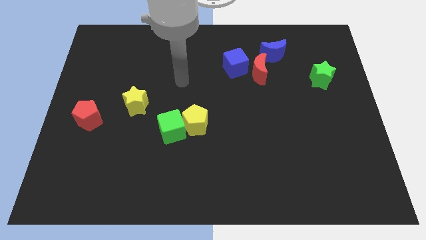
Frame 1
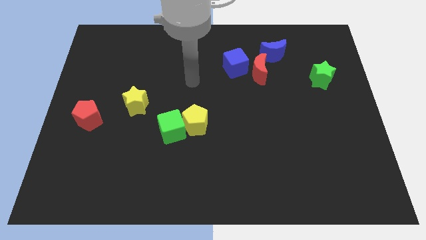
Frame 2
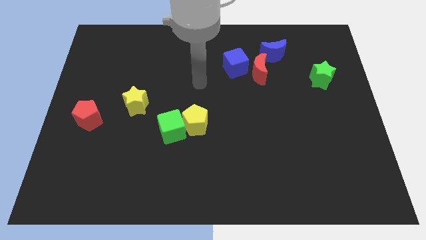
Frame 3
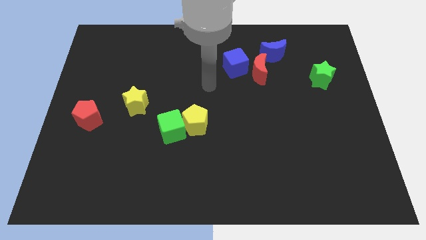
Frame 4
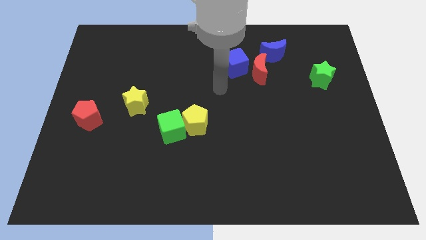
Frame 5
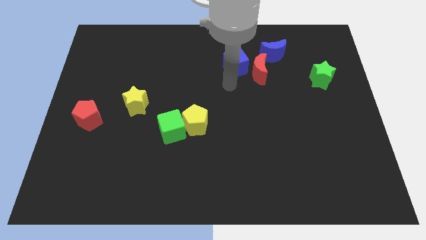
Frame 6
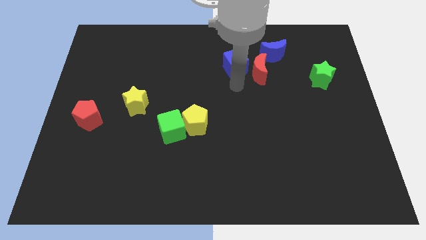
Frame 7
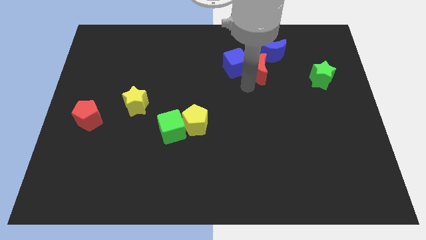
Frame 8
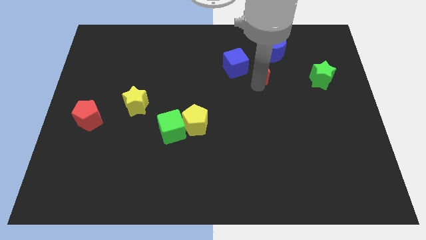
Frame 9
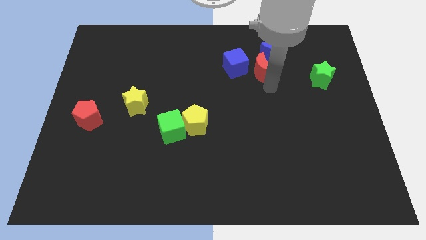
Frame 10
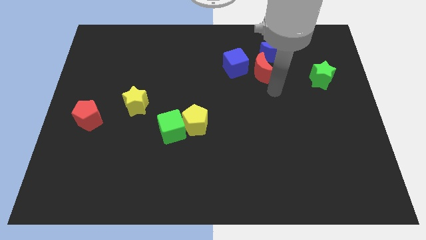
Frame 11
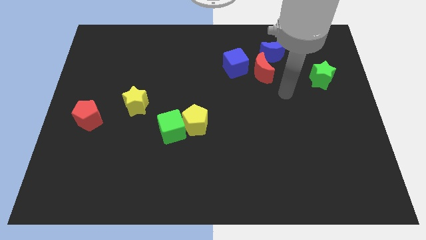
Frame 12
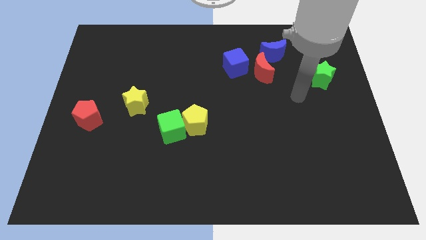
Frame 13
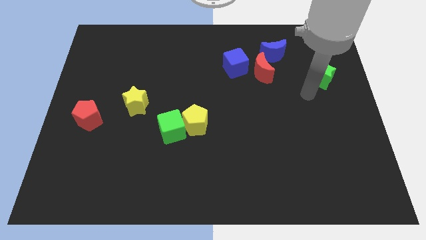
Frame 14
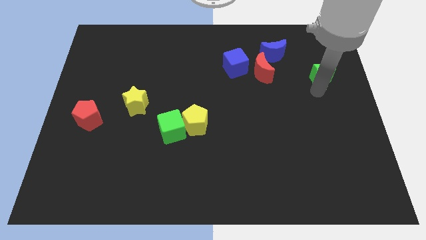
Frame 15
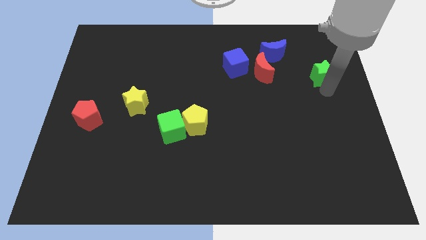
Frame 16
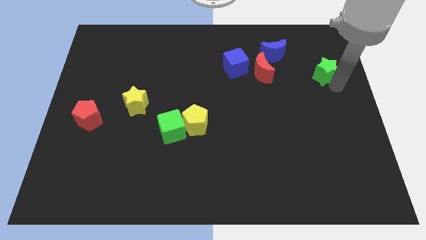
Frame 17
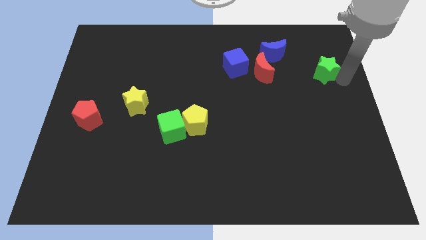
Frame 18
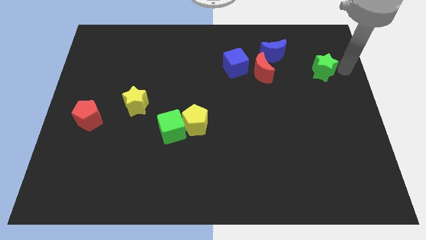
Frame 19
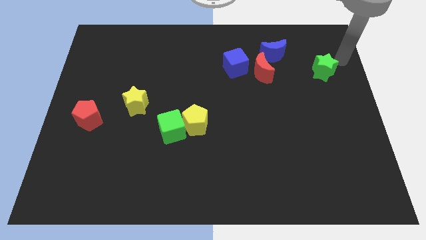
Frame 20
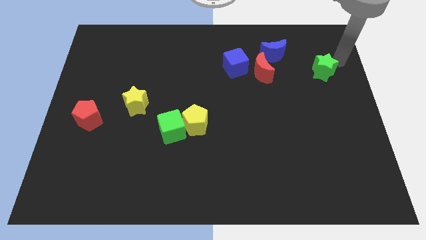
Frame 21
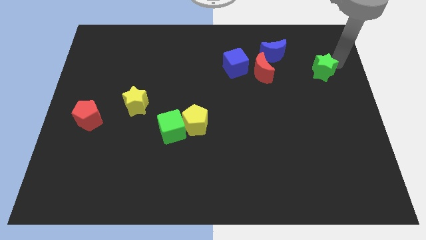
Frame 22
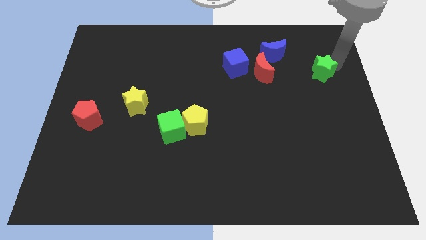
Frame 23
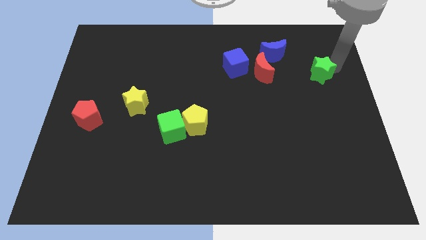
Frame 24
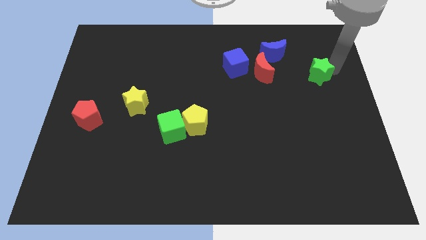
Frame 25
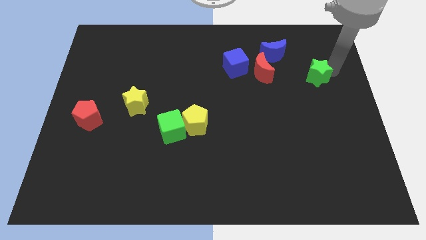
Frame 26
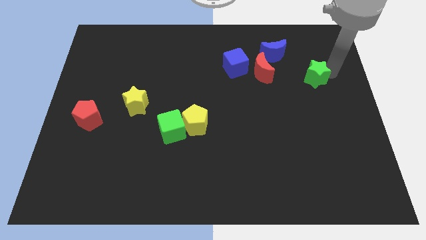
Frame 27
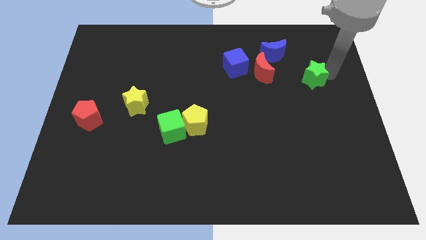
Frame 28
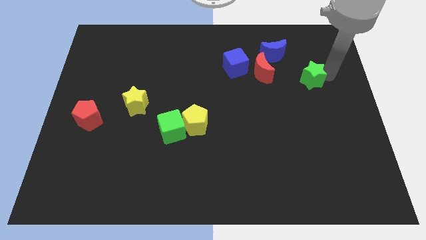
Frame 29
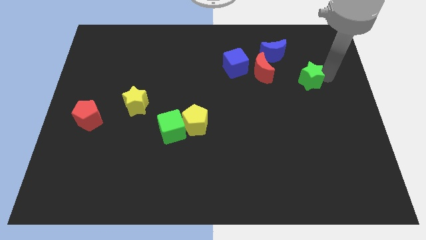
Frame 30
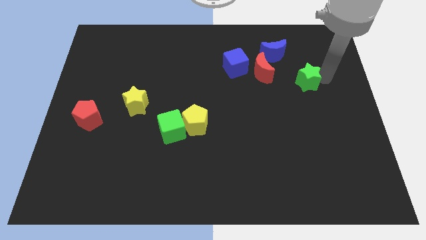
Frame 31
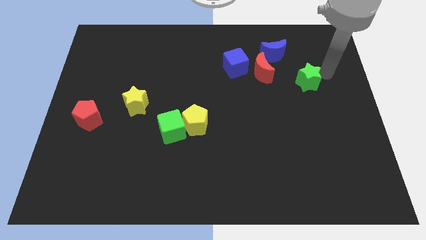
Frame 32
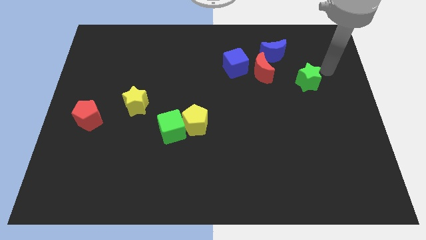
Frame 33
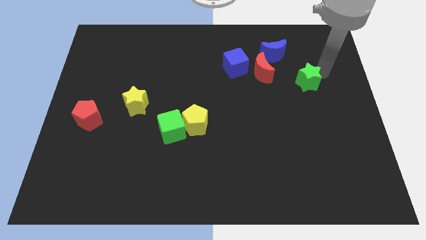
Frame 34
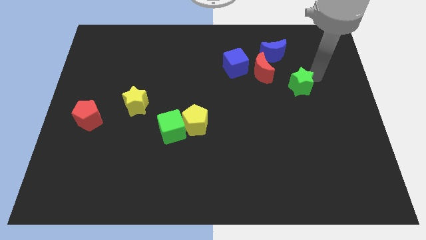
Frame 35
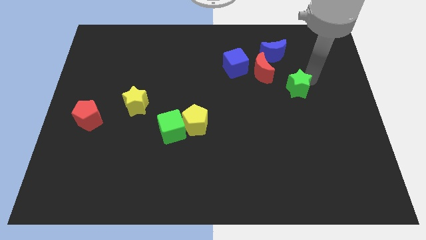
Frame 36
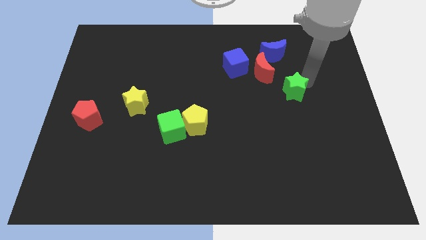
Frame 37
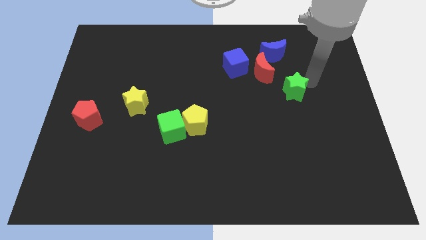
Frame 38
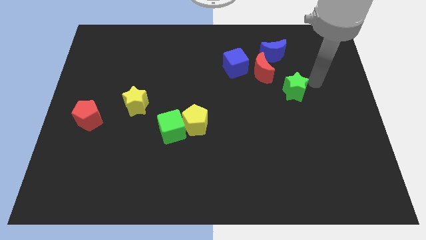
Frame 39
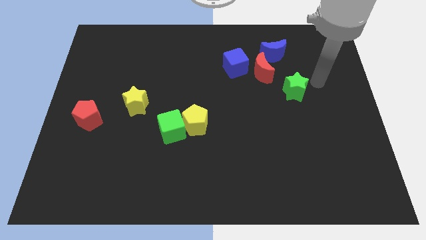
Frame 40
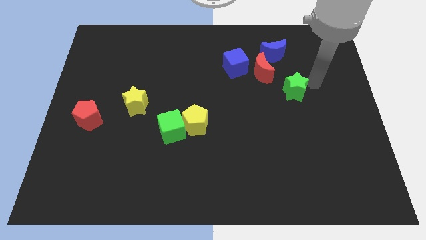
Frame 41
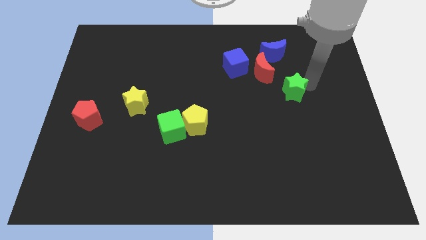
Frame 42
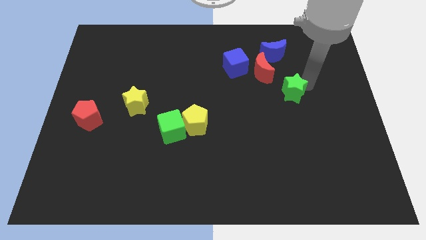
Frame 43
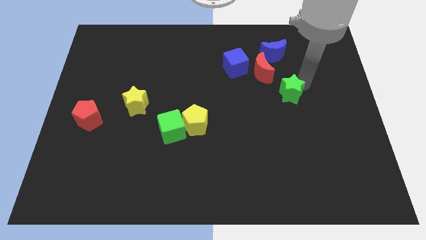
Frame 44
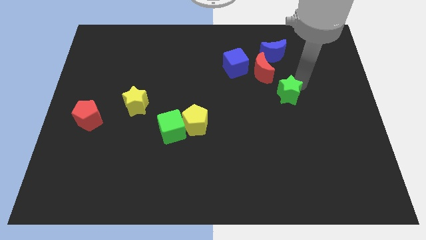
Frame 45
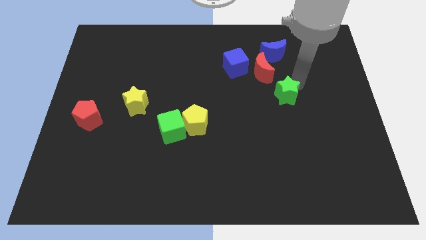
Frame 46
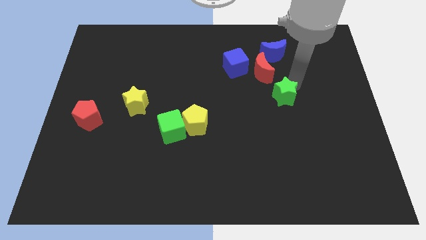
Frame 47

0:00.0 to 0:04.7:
push the green star to the bottom of the red moon

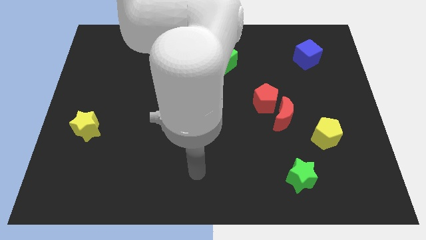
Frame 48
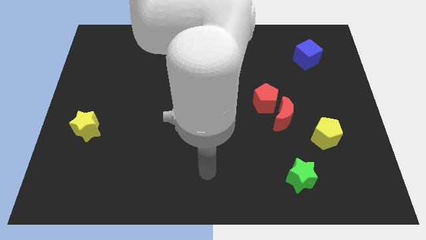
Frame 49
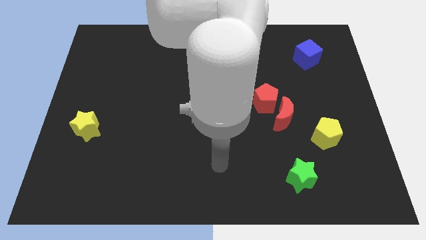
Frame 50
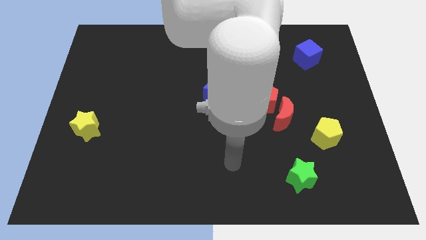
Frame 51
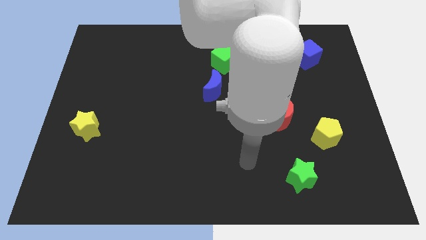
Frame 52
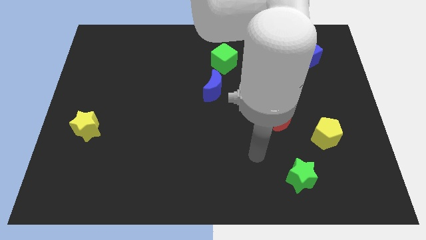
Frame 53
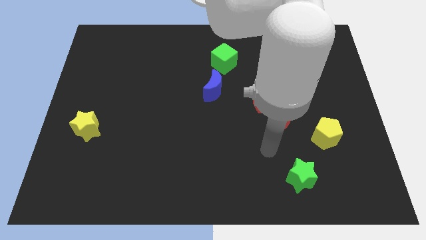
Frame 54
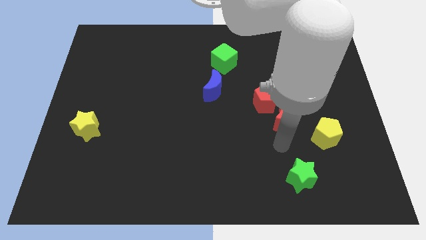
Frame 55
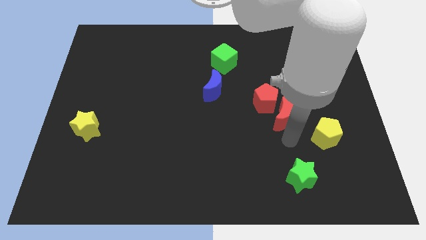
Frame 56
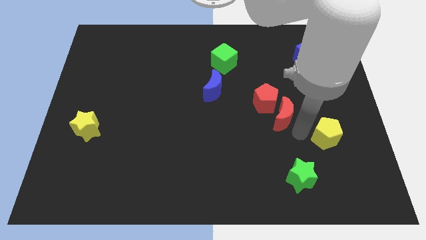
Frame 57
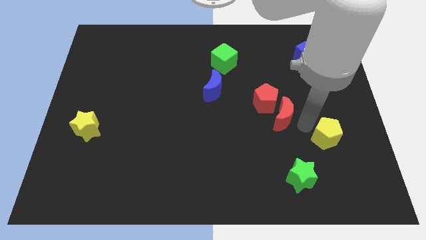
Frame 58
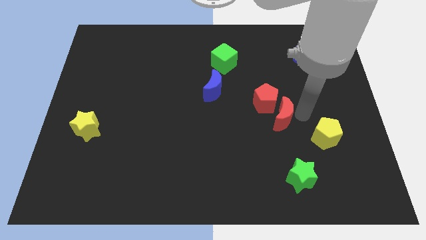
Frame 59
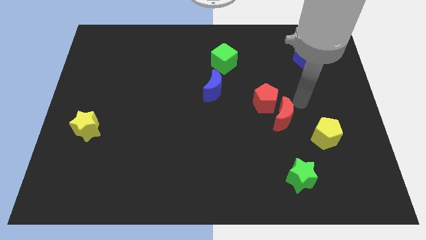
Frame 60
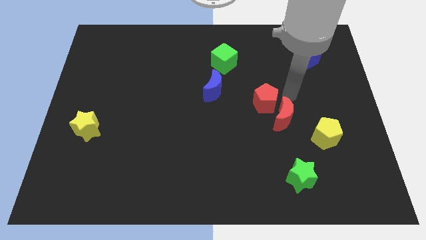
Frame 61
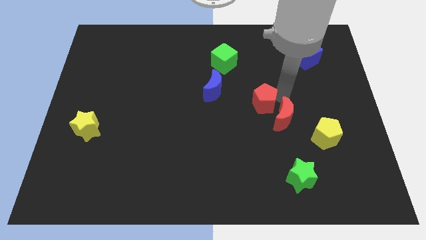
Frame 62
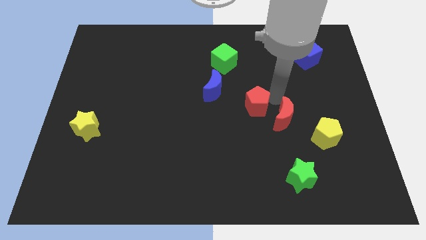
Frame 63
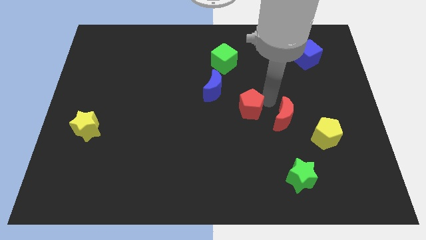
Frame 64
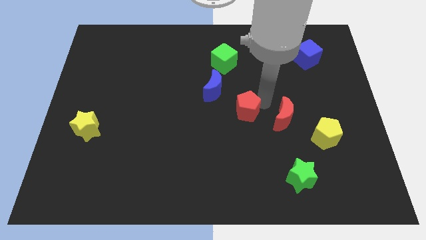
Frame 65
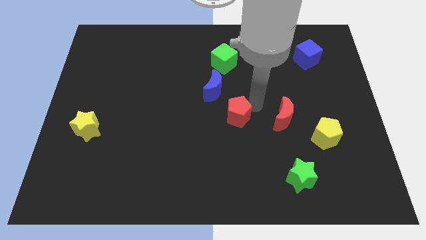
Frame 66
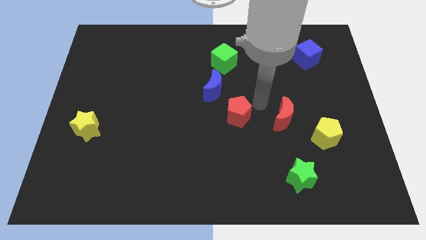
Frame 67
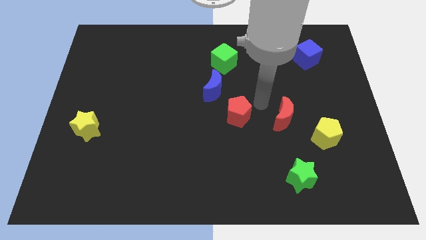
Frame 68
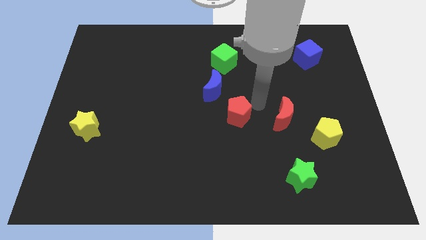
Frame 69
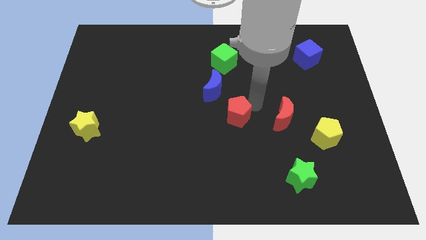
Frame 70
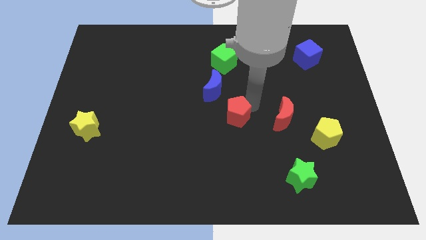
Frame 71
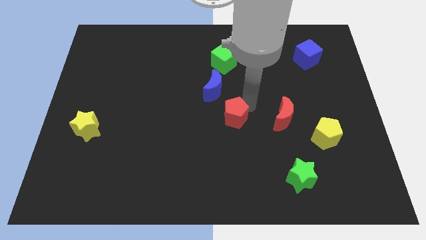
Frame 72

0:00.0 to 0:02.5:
slide the red pentagon to the bottom side of the blue moon

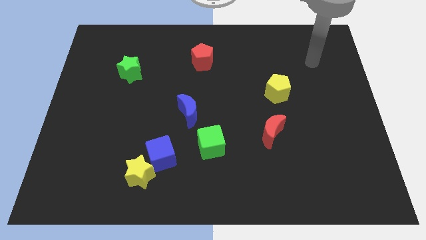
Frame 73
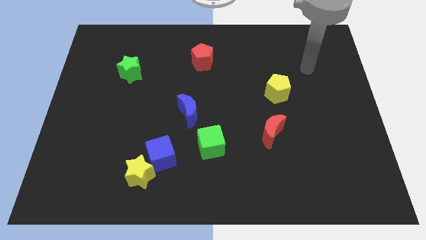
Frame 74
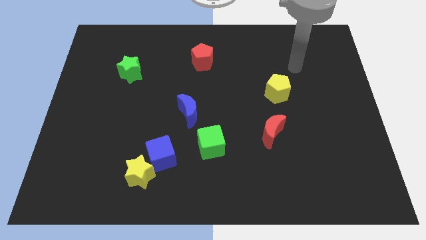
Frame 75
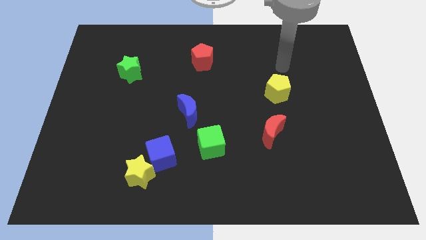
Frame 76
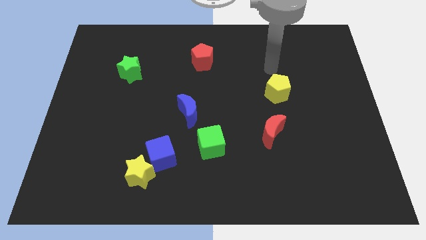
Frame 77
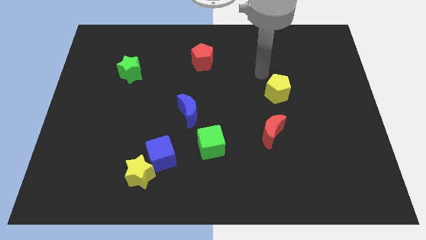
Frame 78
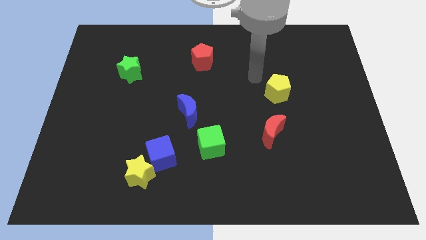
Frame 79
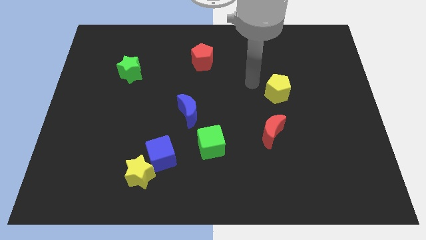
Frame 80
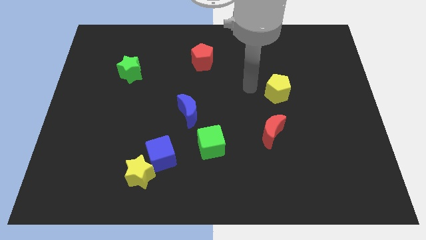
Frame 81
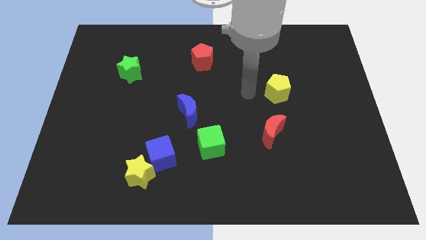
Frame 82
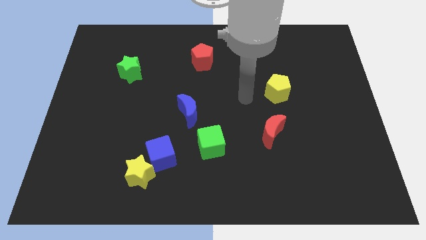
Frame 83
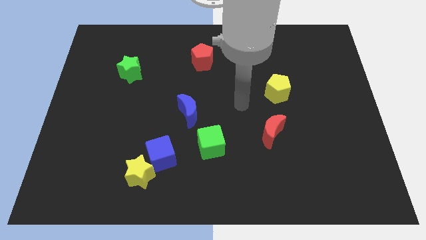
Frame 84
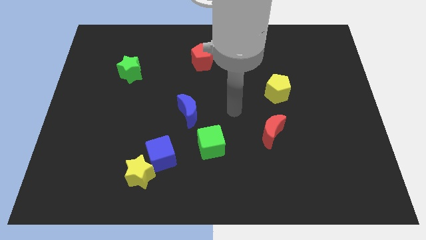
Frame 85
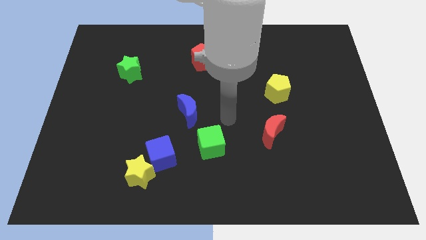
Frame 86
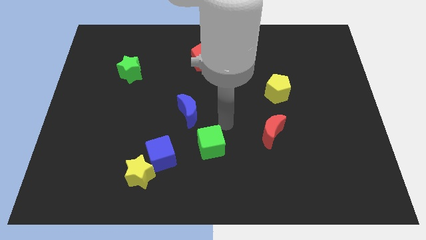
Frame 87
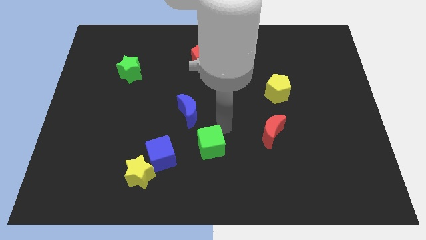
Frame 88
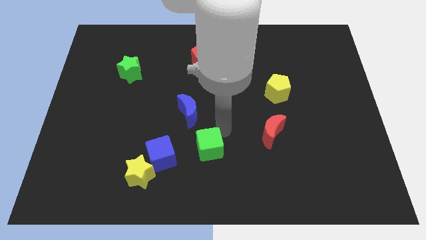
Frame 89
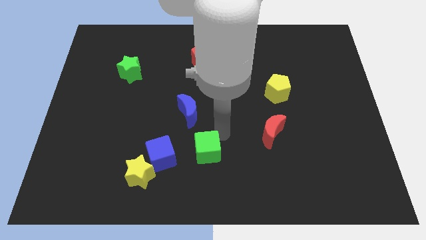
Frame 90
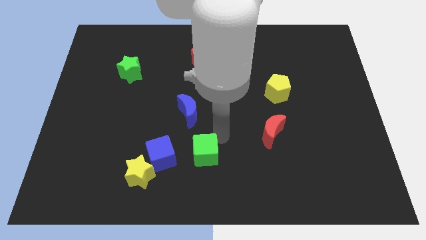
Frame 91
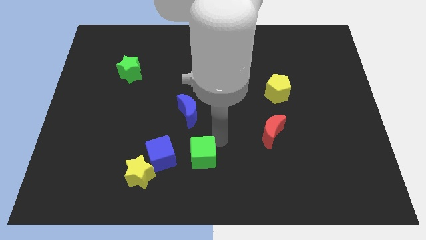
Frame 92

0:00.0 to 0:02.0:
slide the green cube to the right side of the yellow star
